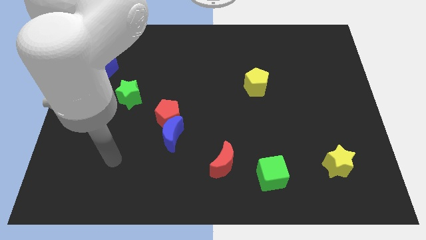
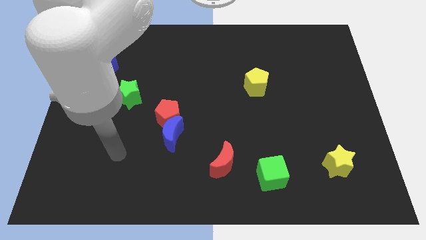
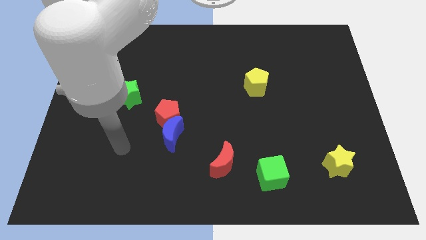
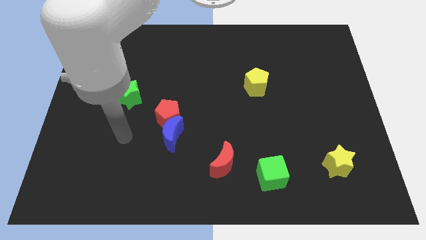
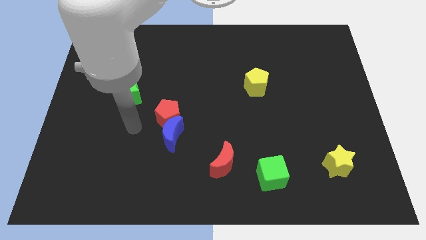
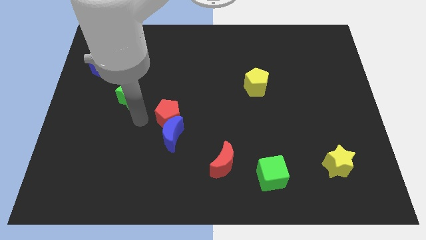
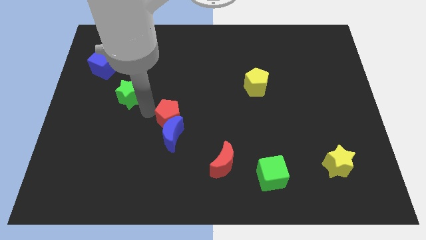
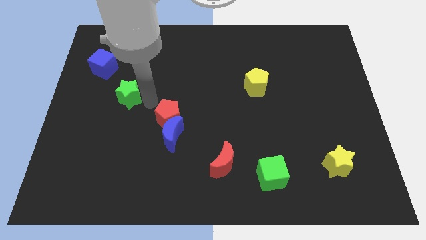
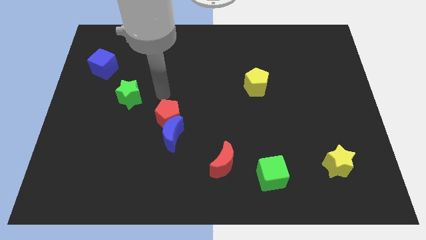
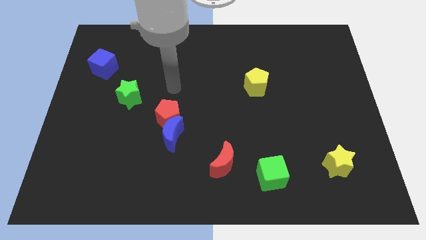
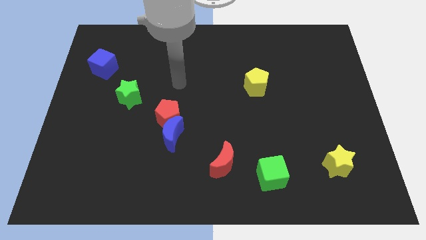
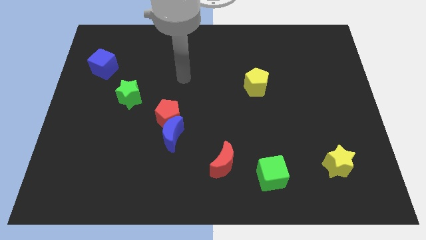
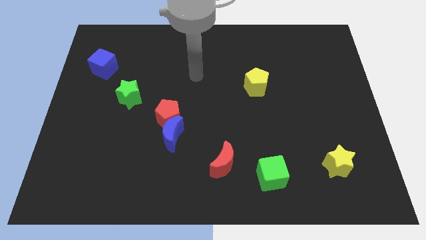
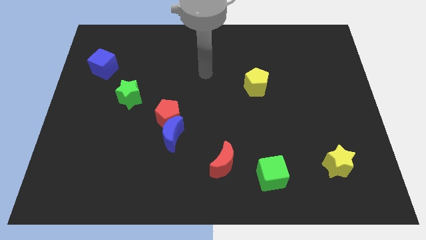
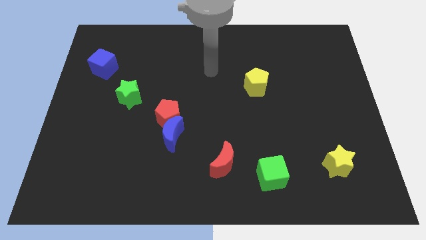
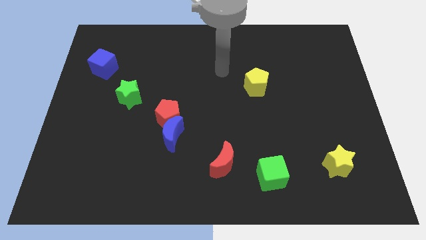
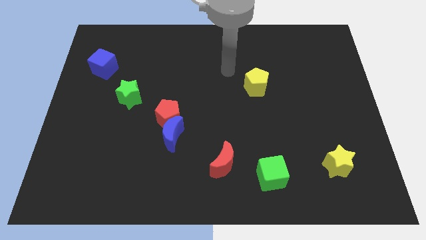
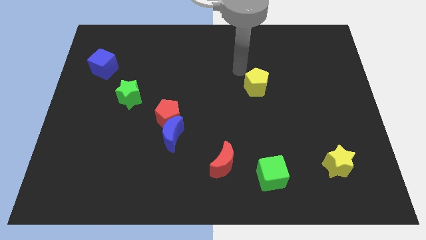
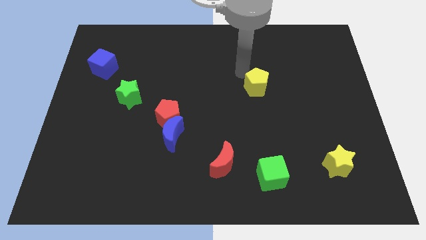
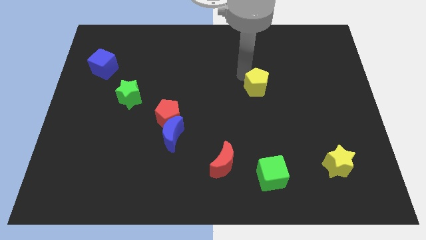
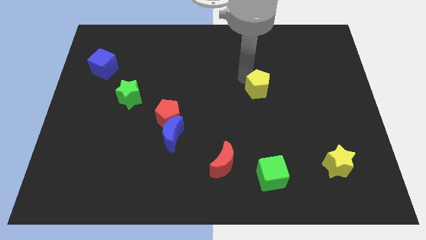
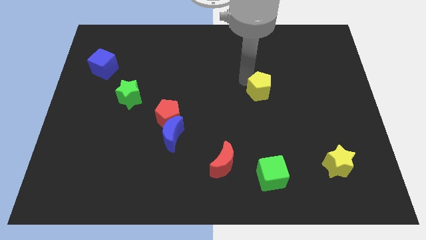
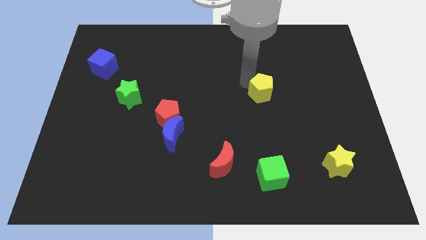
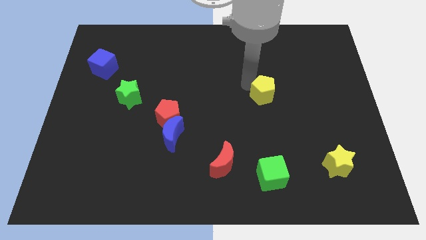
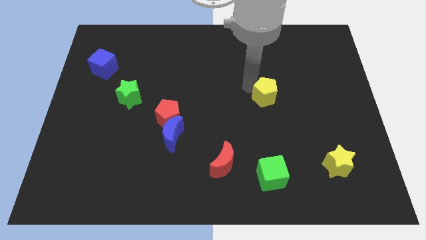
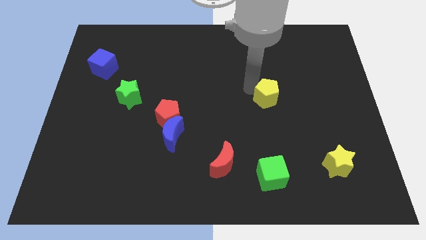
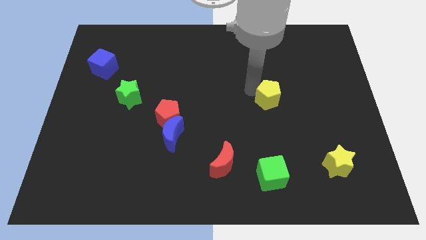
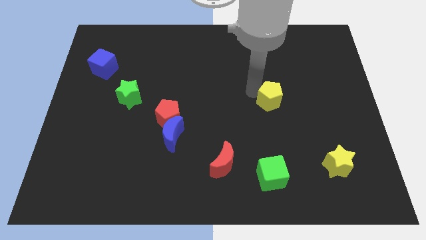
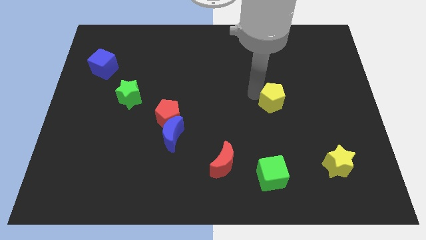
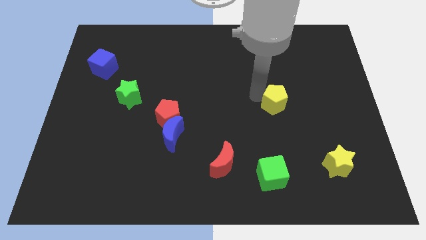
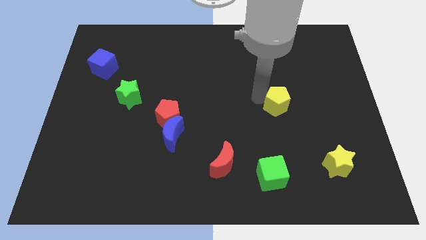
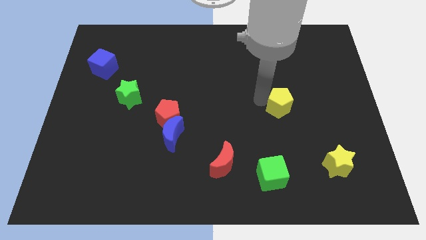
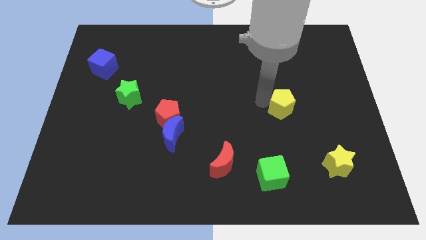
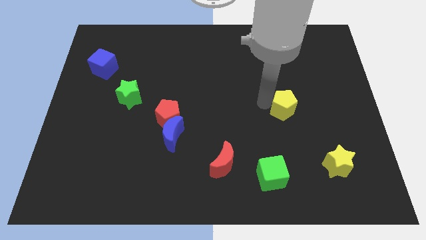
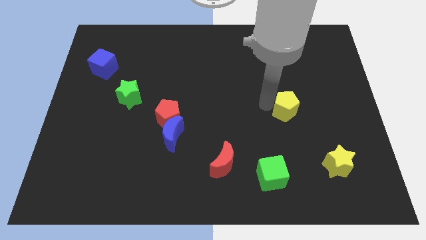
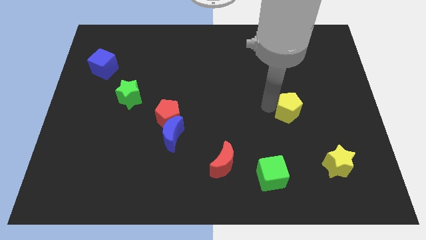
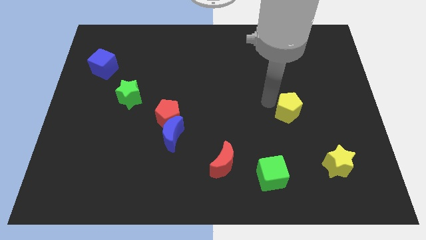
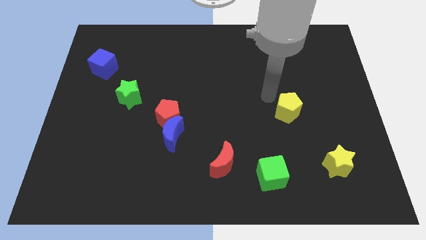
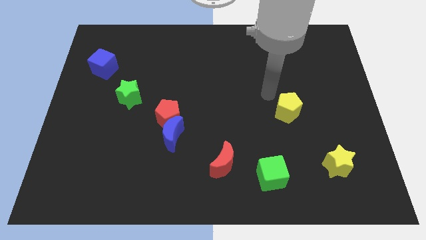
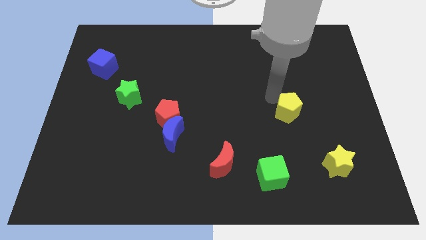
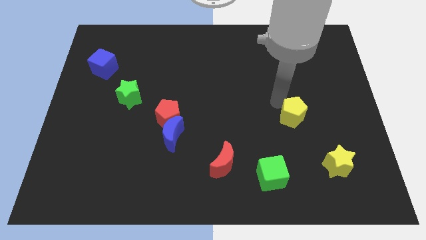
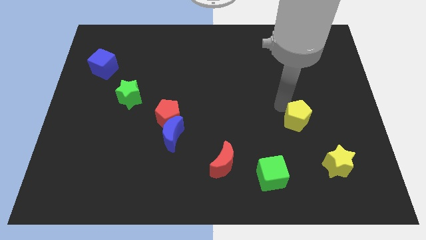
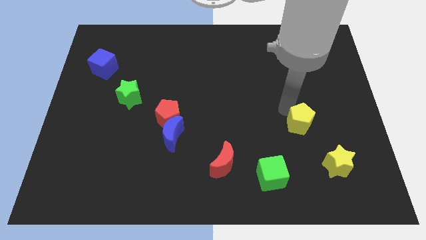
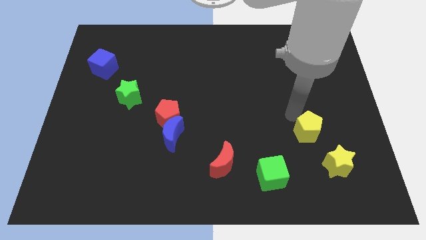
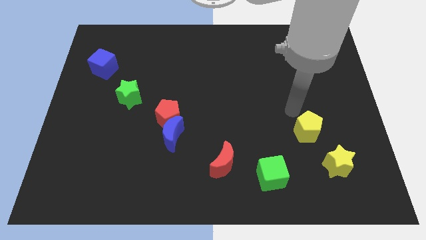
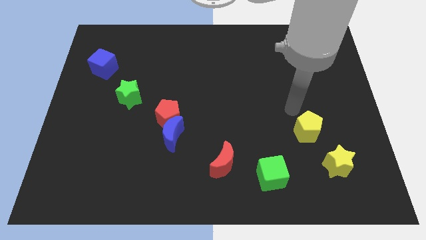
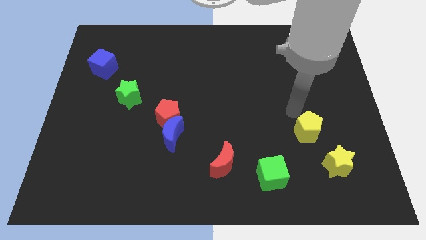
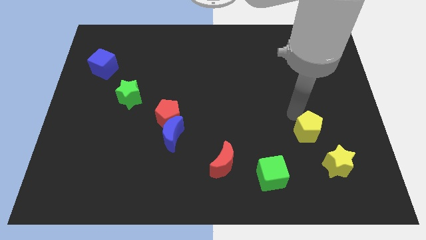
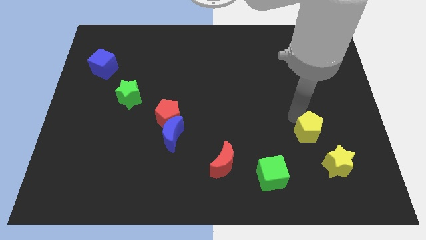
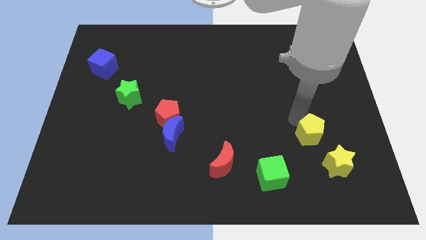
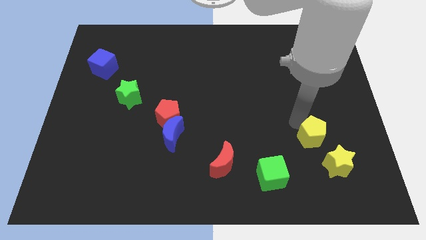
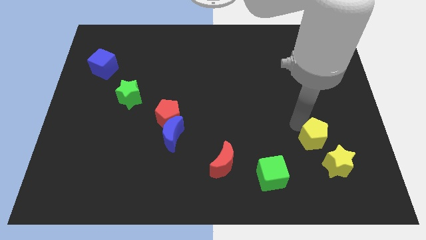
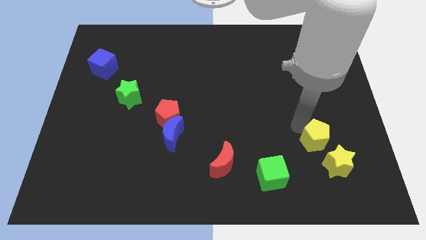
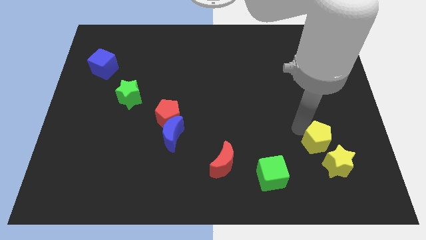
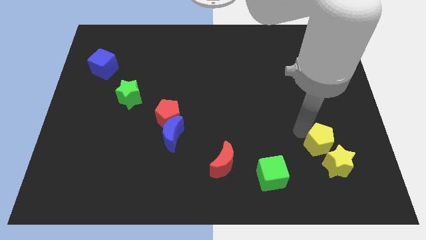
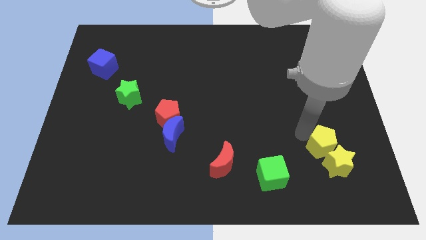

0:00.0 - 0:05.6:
push the yellow pentagon to the yellow star
